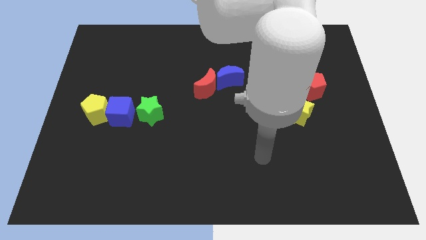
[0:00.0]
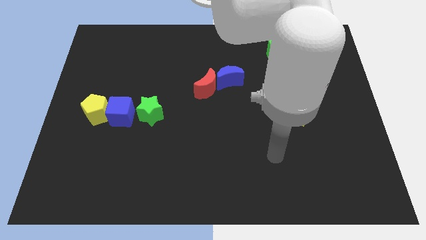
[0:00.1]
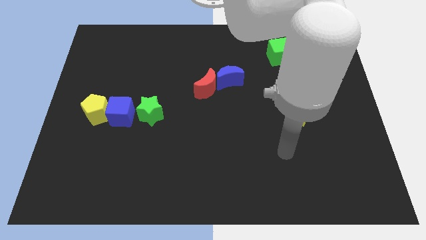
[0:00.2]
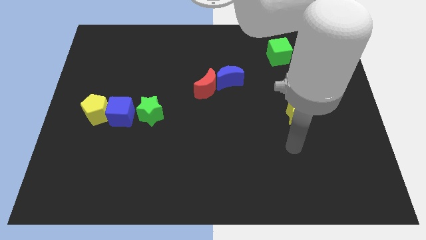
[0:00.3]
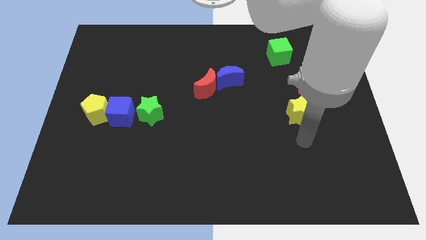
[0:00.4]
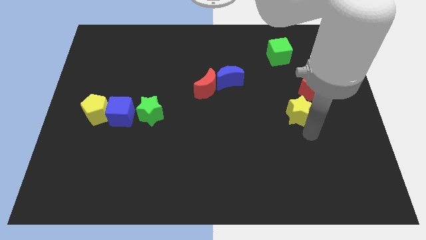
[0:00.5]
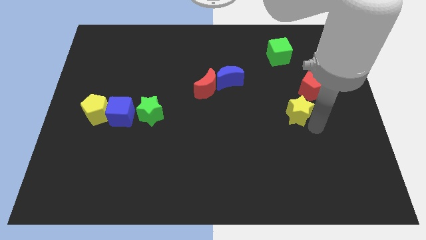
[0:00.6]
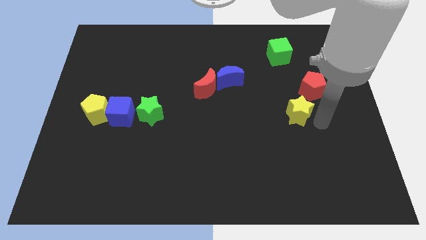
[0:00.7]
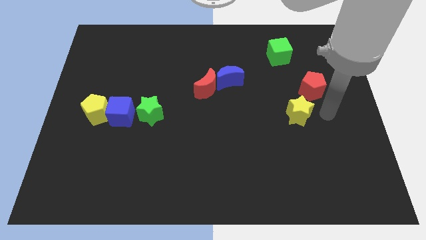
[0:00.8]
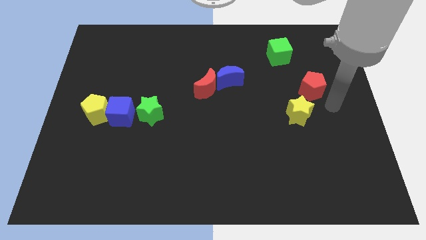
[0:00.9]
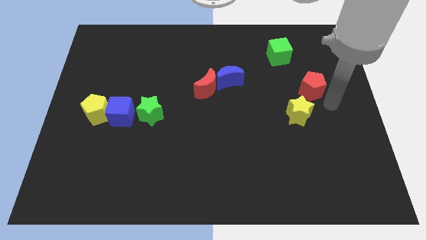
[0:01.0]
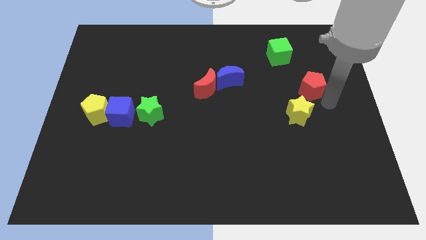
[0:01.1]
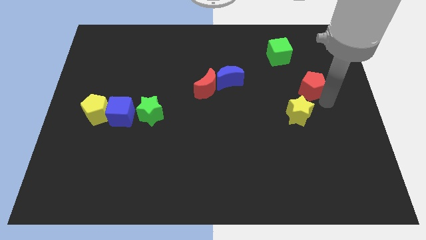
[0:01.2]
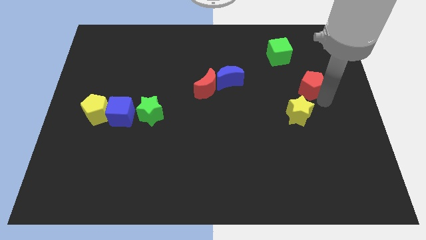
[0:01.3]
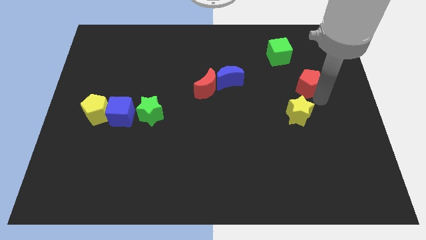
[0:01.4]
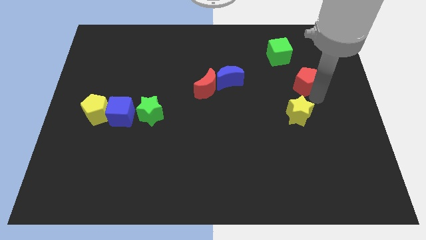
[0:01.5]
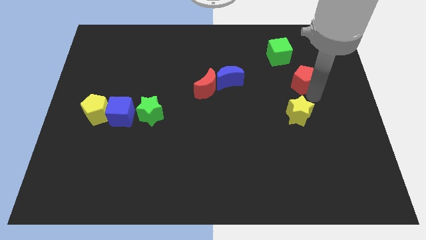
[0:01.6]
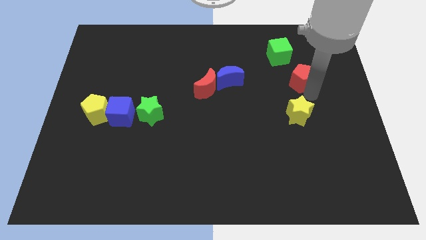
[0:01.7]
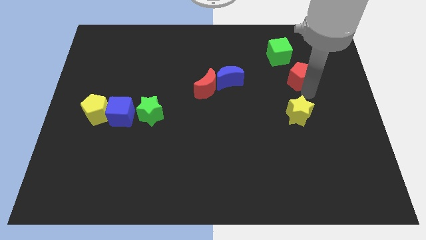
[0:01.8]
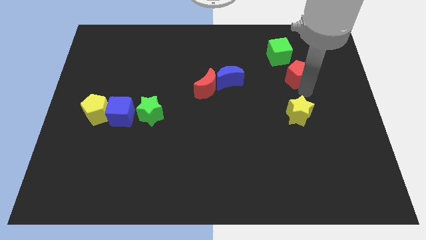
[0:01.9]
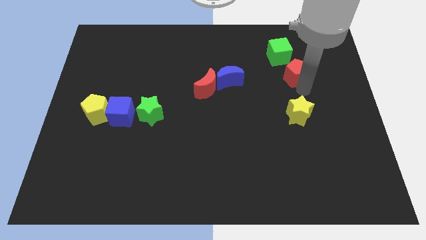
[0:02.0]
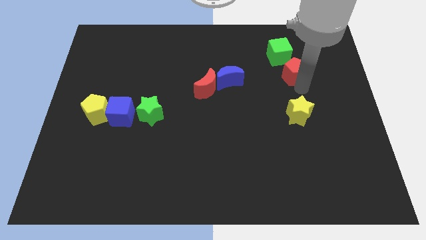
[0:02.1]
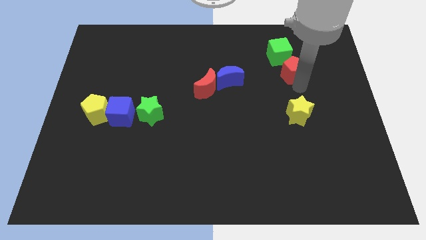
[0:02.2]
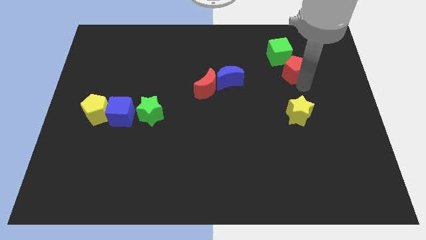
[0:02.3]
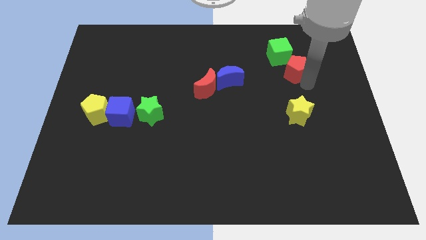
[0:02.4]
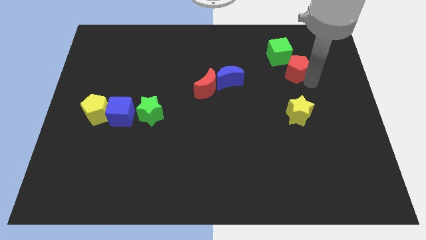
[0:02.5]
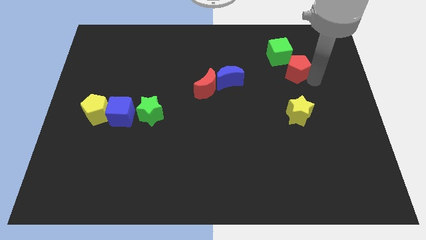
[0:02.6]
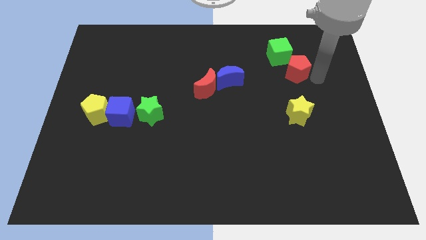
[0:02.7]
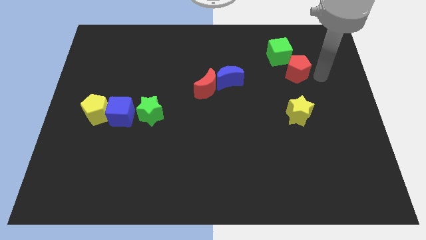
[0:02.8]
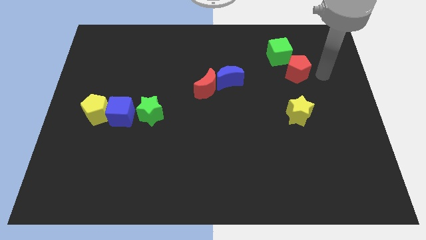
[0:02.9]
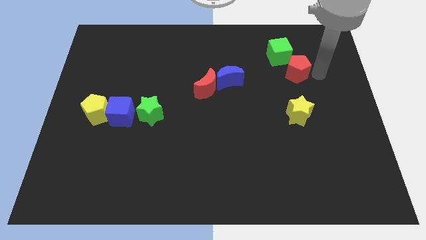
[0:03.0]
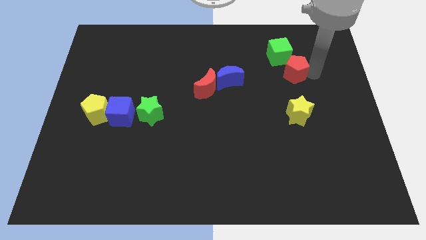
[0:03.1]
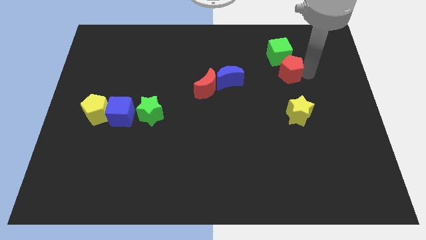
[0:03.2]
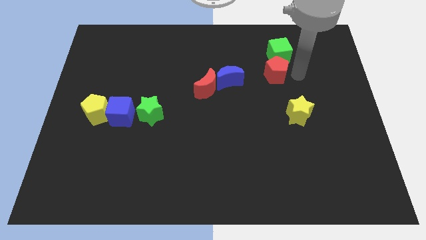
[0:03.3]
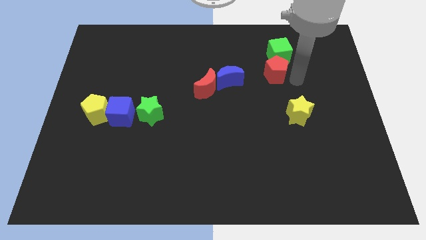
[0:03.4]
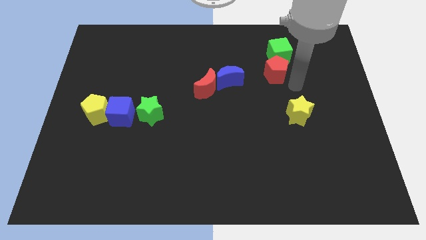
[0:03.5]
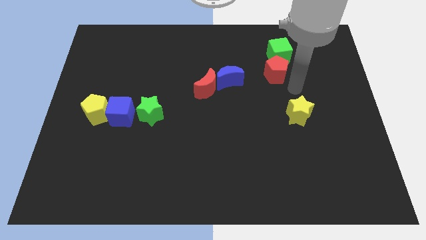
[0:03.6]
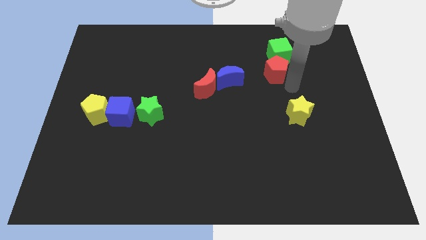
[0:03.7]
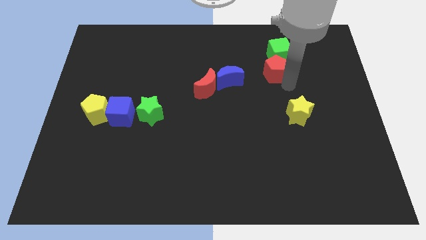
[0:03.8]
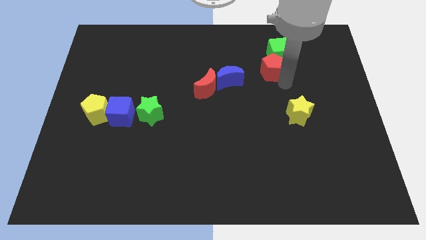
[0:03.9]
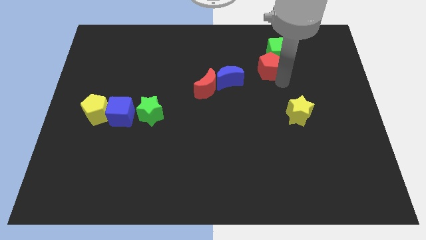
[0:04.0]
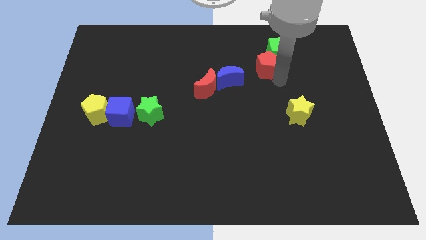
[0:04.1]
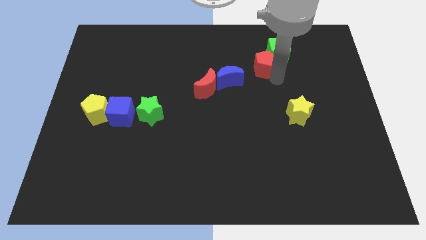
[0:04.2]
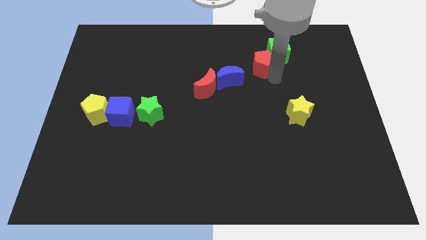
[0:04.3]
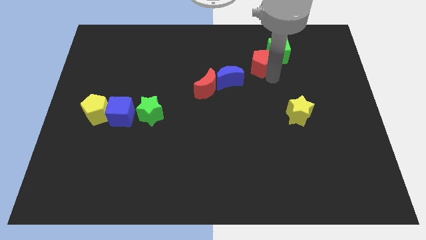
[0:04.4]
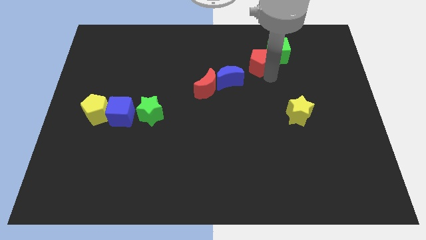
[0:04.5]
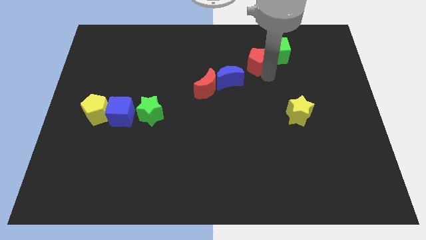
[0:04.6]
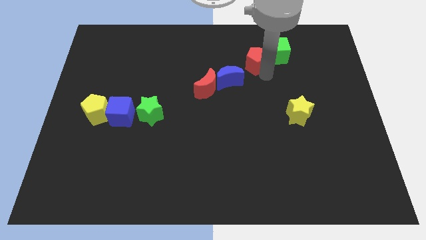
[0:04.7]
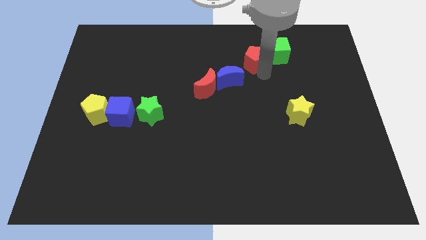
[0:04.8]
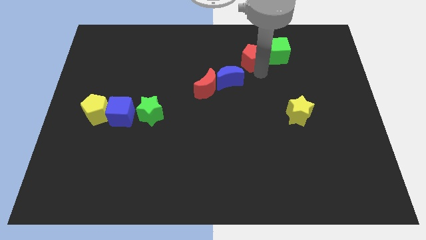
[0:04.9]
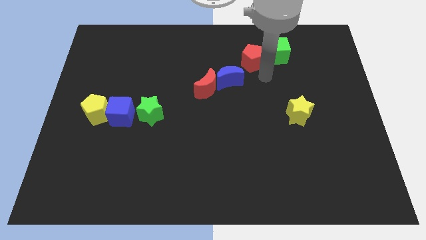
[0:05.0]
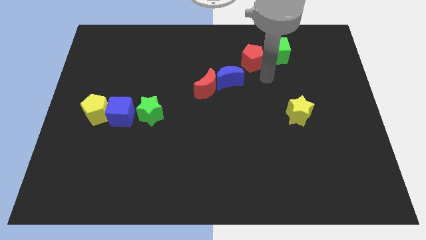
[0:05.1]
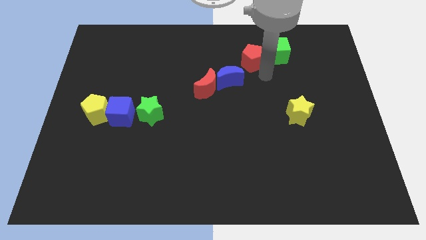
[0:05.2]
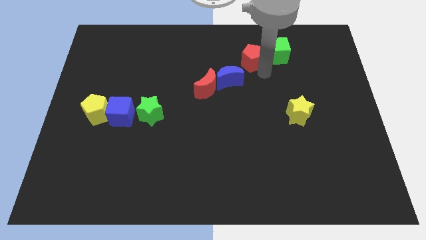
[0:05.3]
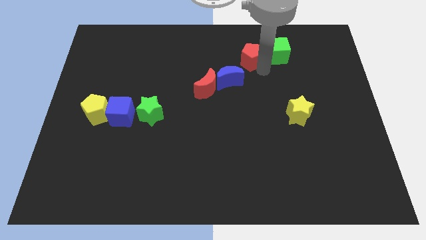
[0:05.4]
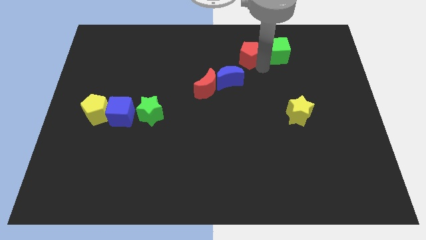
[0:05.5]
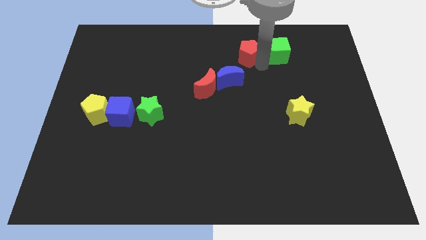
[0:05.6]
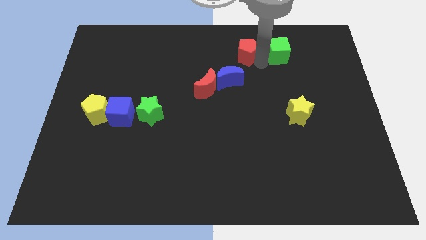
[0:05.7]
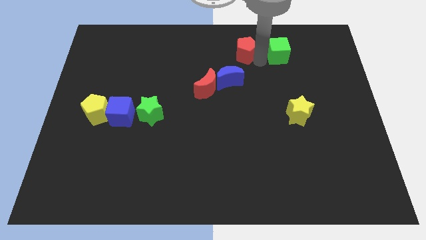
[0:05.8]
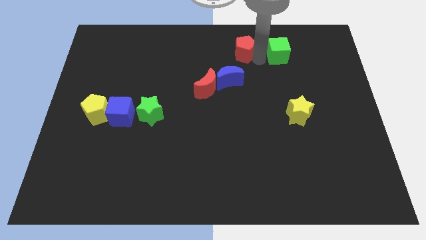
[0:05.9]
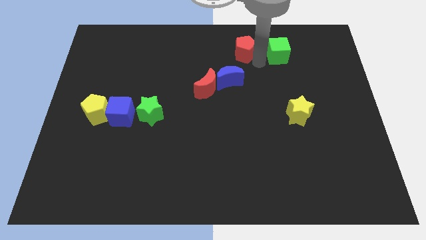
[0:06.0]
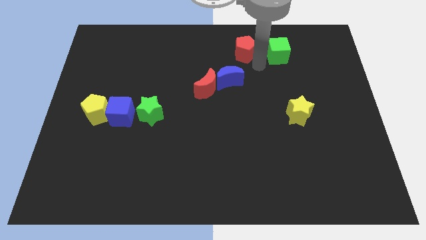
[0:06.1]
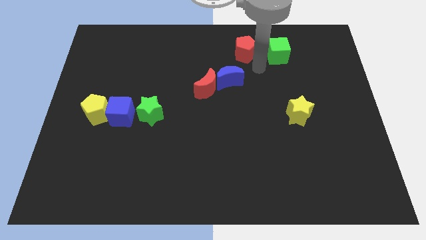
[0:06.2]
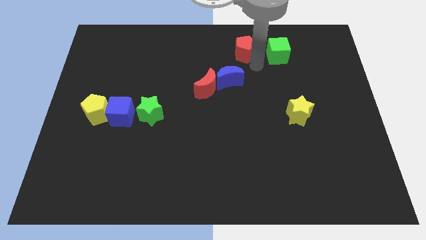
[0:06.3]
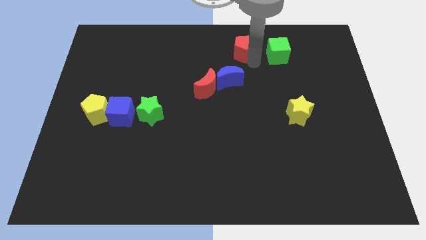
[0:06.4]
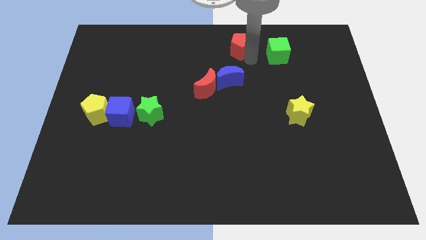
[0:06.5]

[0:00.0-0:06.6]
put the red pentagon to the towards your base
